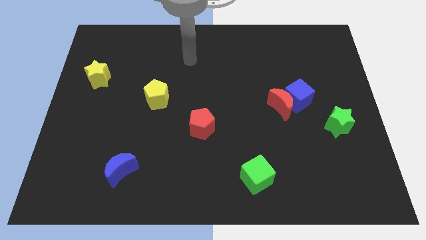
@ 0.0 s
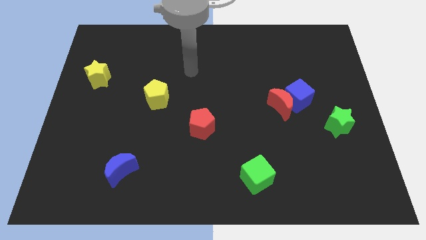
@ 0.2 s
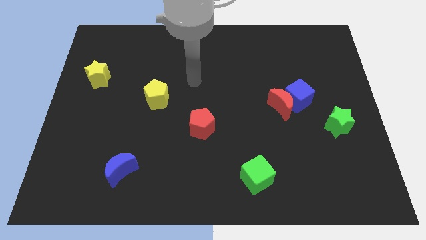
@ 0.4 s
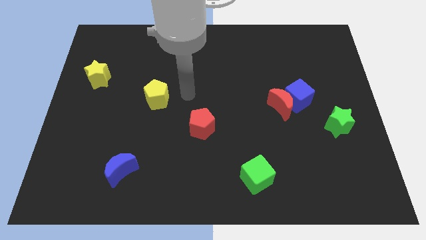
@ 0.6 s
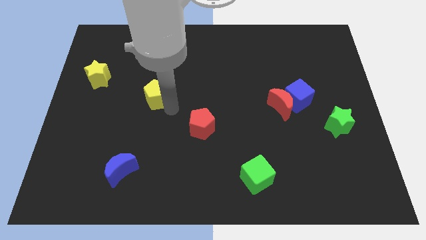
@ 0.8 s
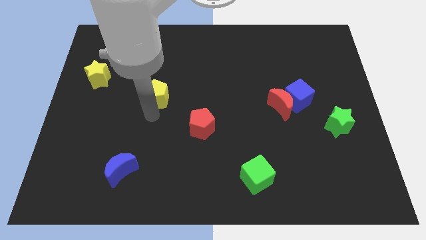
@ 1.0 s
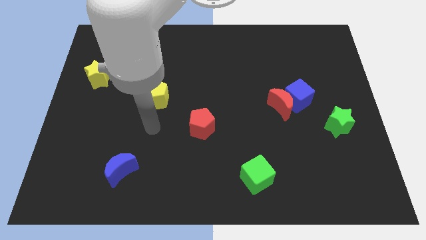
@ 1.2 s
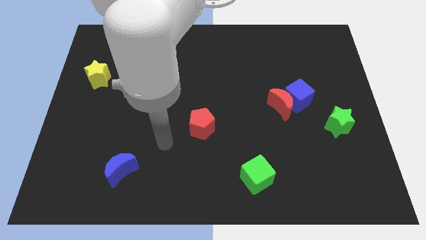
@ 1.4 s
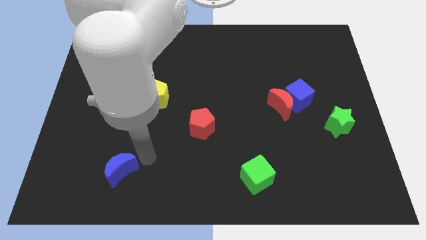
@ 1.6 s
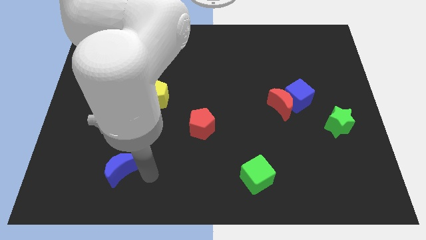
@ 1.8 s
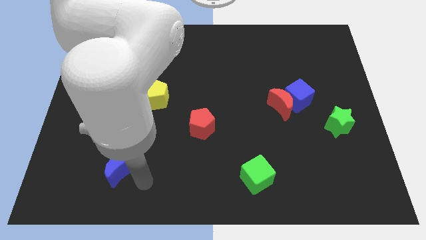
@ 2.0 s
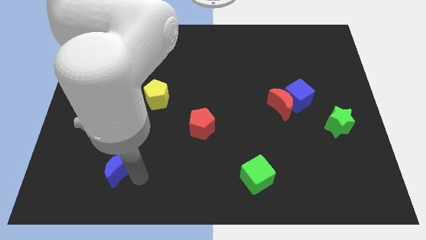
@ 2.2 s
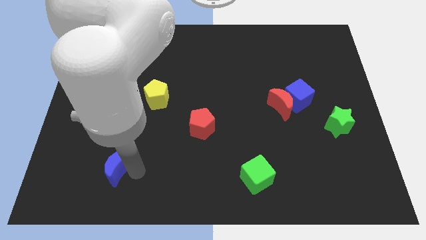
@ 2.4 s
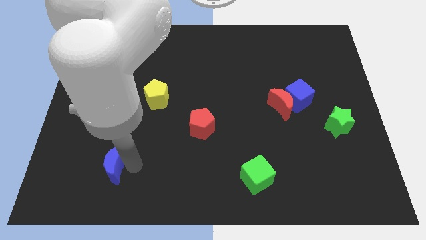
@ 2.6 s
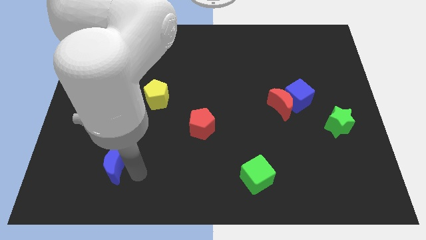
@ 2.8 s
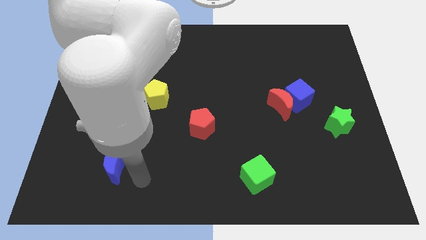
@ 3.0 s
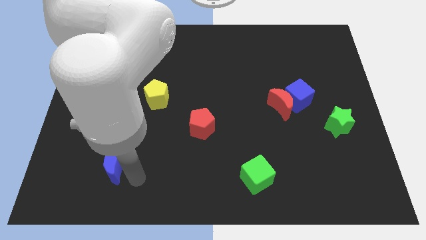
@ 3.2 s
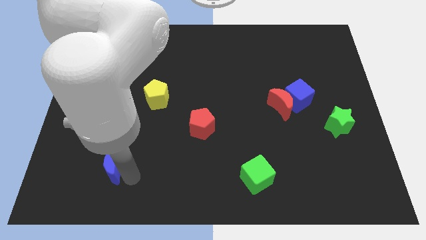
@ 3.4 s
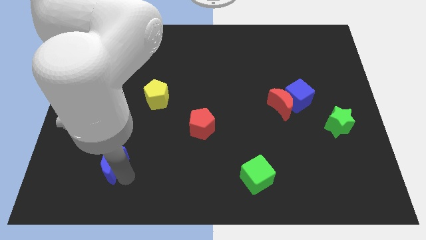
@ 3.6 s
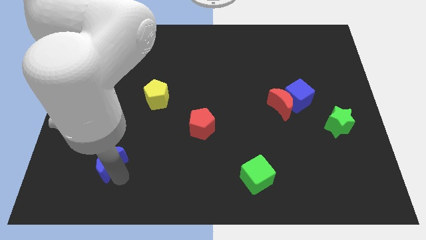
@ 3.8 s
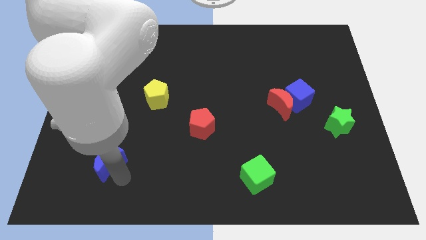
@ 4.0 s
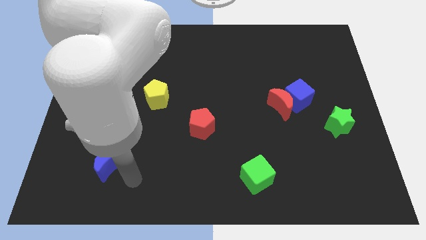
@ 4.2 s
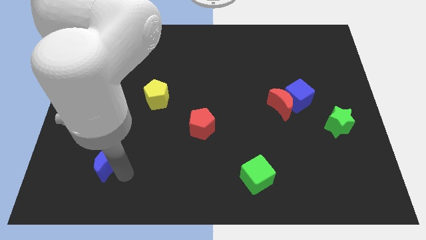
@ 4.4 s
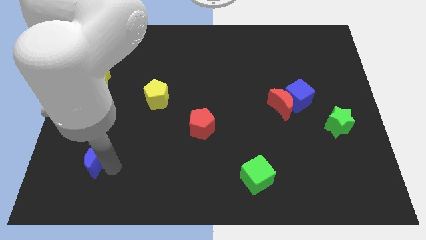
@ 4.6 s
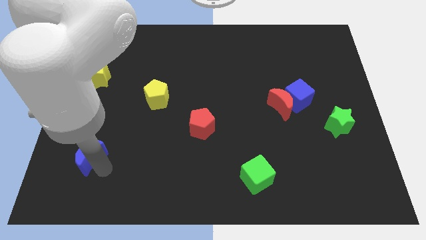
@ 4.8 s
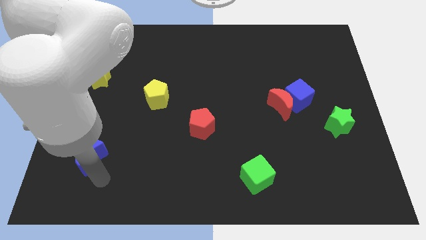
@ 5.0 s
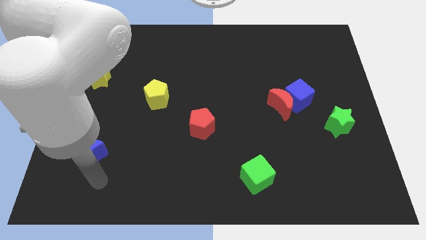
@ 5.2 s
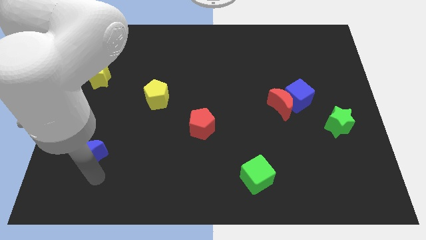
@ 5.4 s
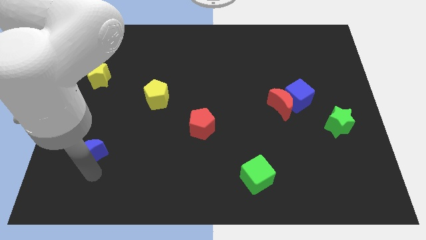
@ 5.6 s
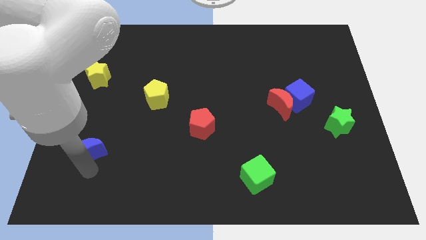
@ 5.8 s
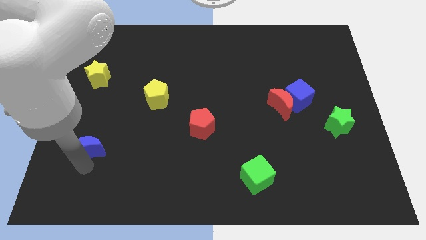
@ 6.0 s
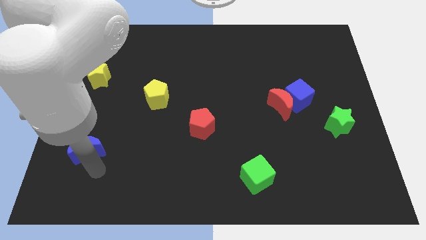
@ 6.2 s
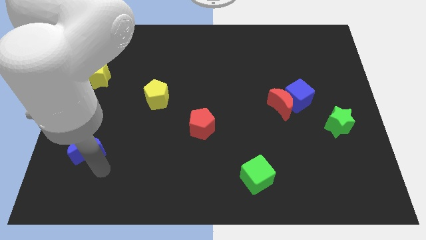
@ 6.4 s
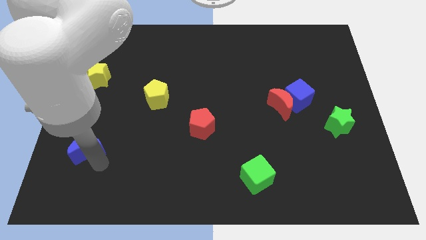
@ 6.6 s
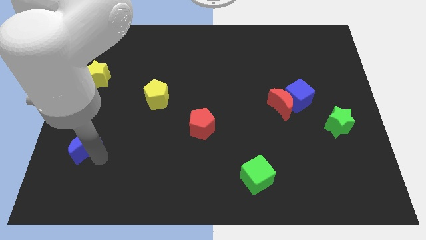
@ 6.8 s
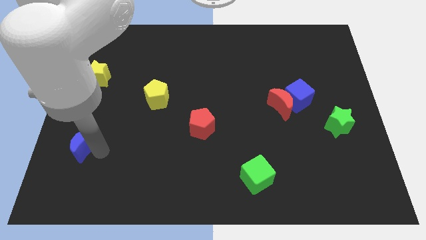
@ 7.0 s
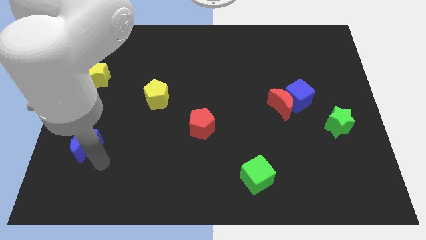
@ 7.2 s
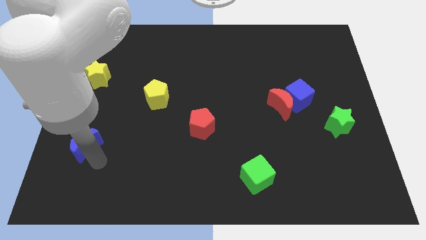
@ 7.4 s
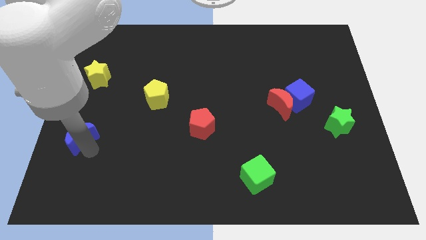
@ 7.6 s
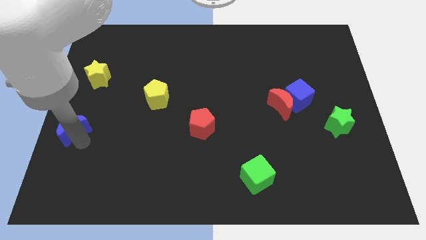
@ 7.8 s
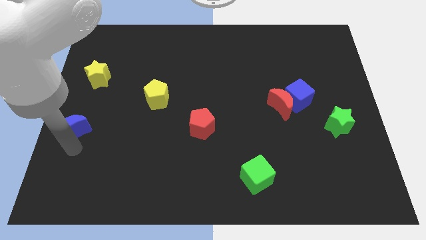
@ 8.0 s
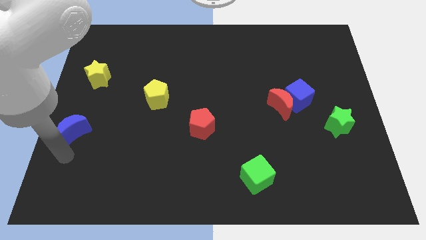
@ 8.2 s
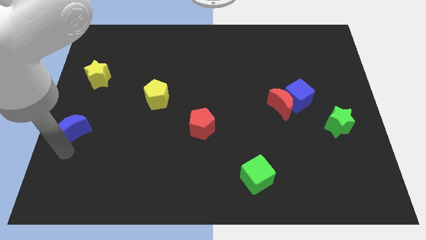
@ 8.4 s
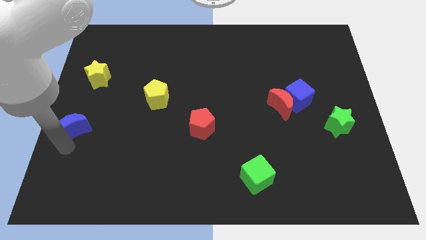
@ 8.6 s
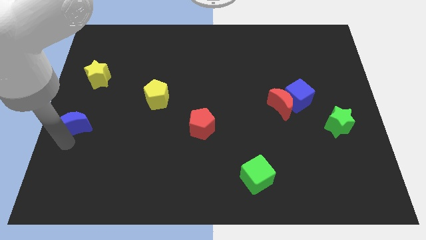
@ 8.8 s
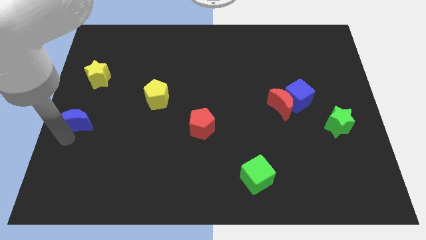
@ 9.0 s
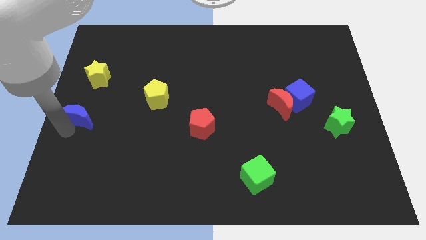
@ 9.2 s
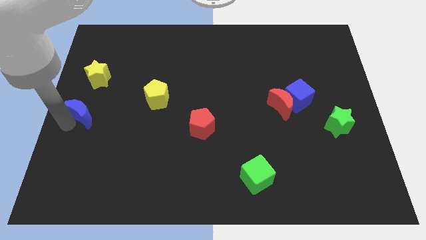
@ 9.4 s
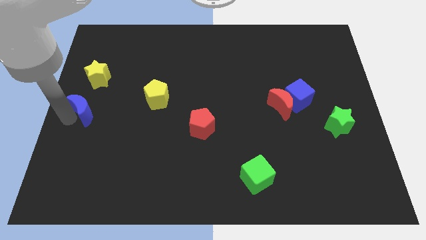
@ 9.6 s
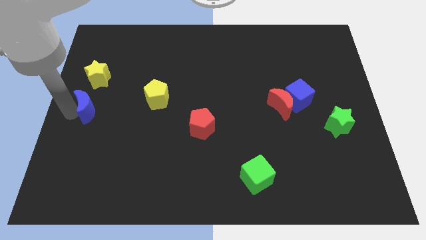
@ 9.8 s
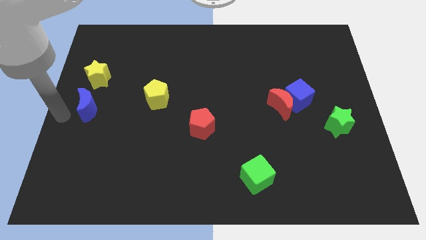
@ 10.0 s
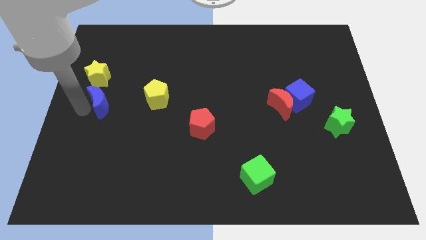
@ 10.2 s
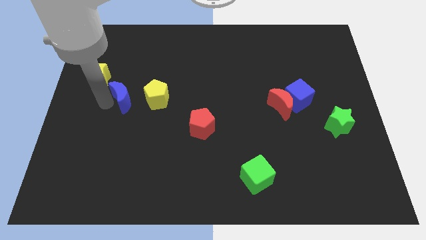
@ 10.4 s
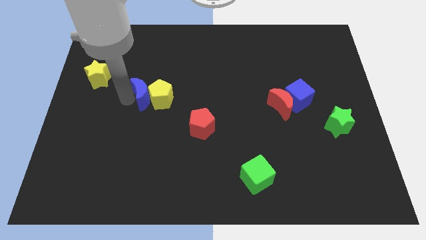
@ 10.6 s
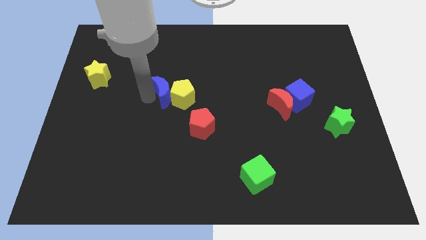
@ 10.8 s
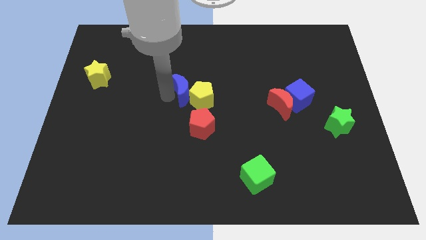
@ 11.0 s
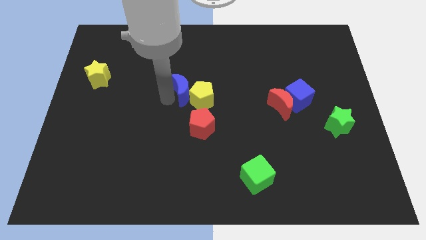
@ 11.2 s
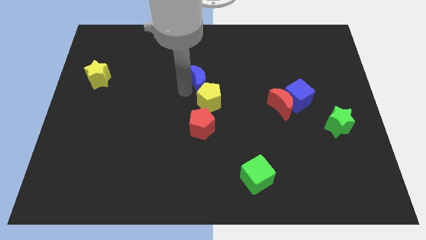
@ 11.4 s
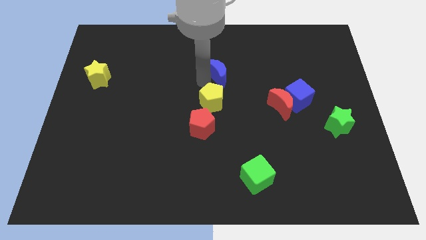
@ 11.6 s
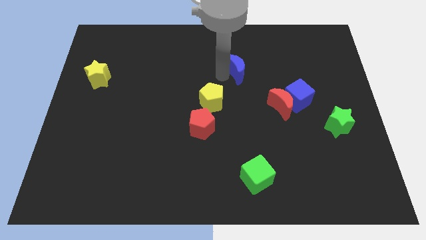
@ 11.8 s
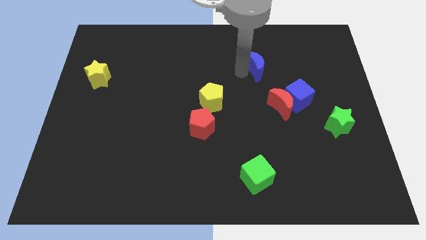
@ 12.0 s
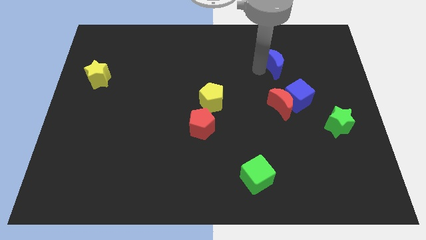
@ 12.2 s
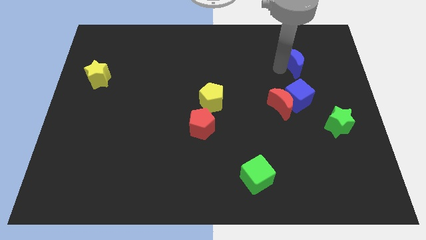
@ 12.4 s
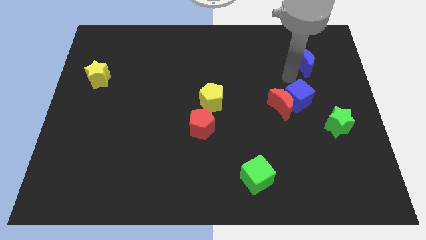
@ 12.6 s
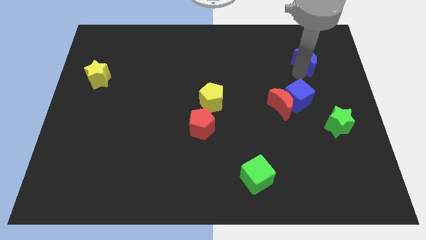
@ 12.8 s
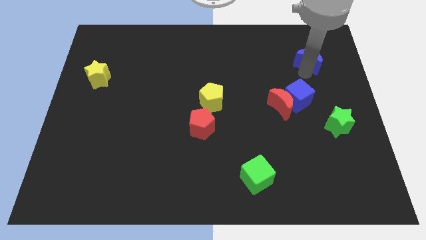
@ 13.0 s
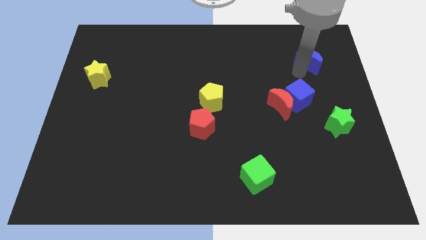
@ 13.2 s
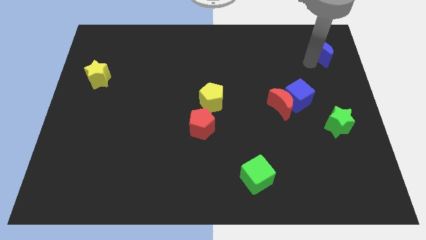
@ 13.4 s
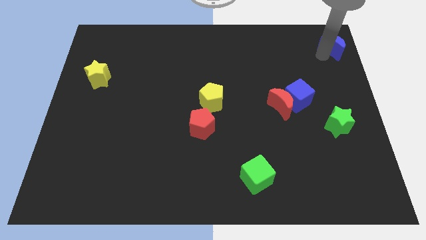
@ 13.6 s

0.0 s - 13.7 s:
put the blue moon to the upper right corner
